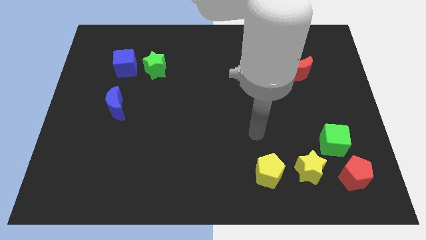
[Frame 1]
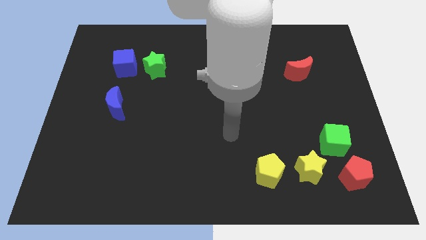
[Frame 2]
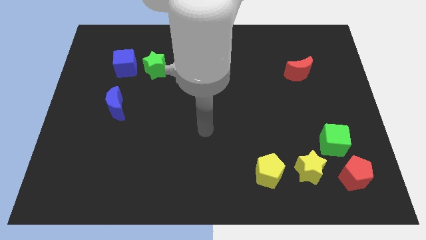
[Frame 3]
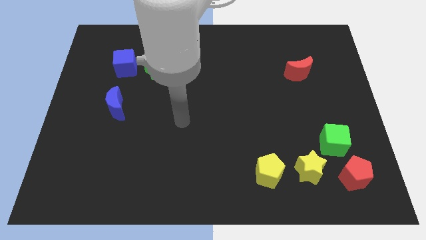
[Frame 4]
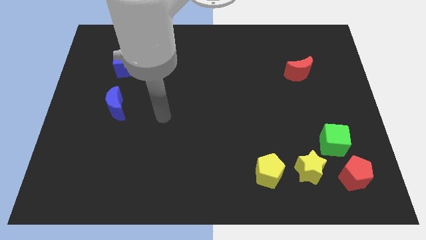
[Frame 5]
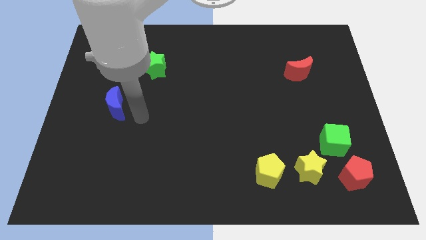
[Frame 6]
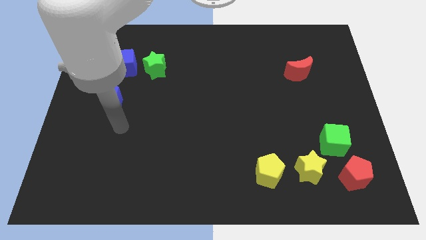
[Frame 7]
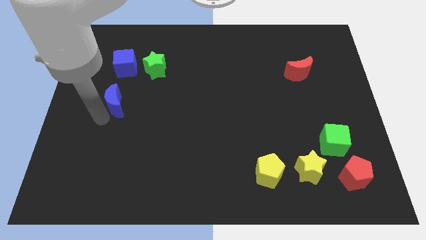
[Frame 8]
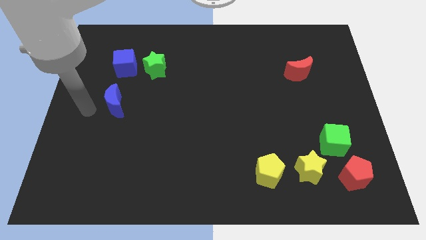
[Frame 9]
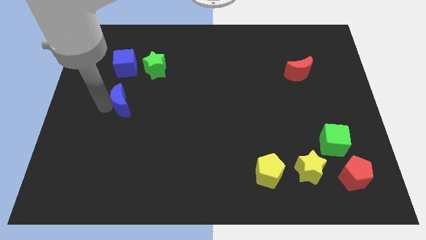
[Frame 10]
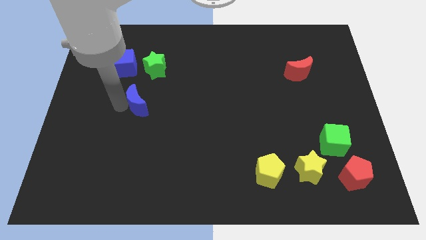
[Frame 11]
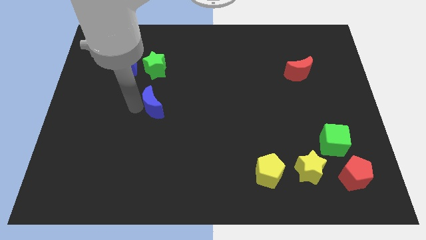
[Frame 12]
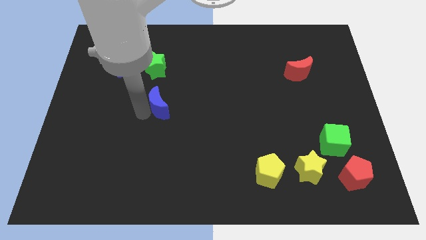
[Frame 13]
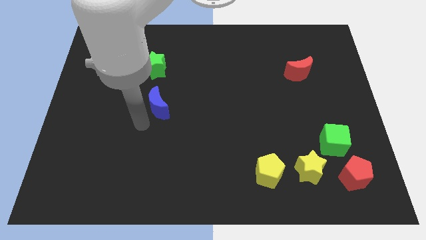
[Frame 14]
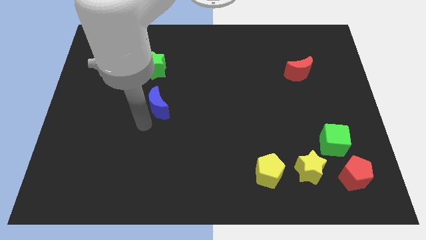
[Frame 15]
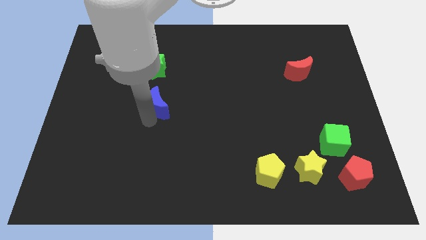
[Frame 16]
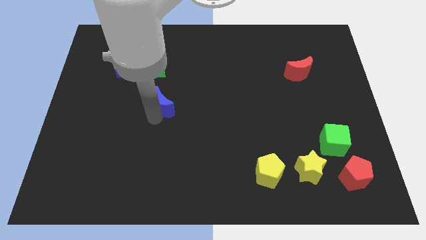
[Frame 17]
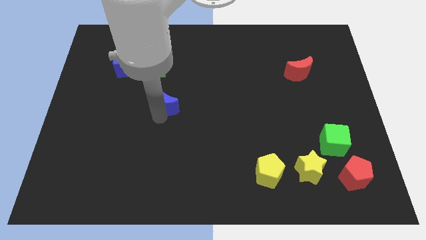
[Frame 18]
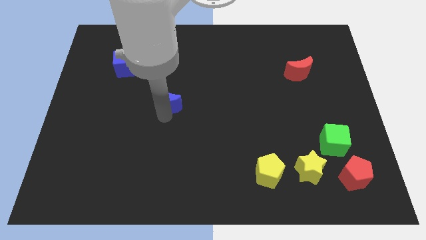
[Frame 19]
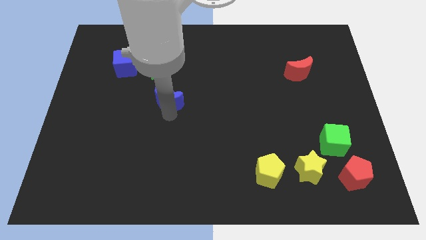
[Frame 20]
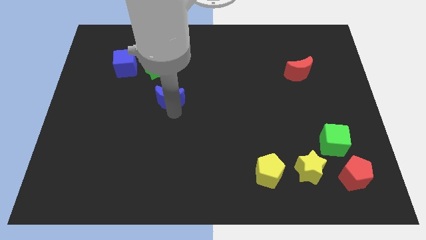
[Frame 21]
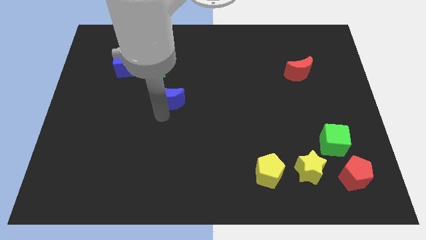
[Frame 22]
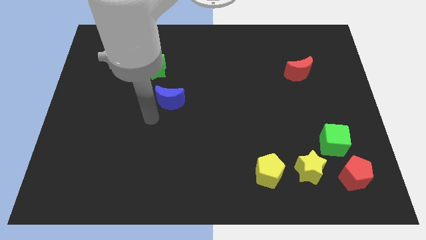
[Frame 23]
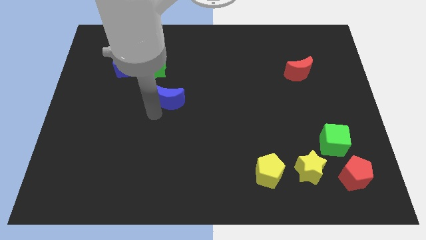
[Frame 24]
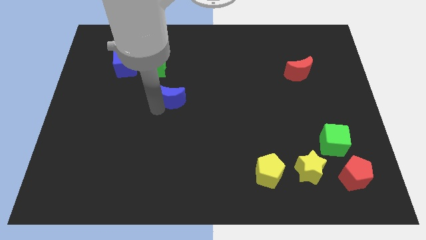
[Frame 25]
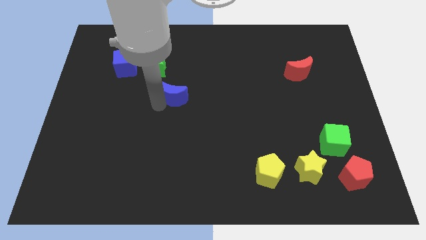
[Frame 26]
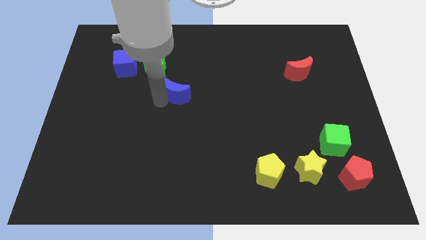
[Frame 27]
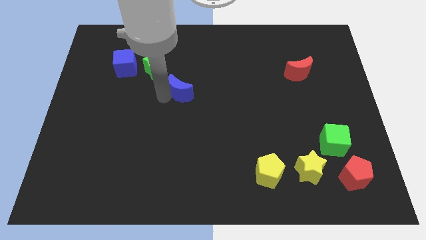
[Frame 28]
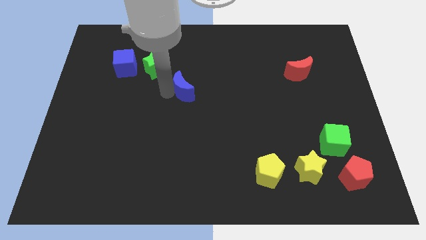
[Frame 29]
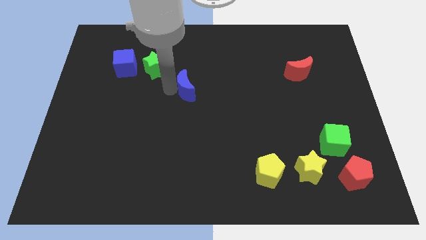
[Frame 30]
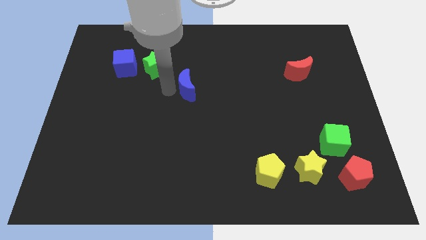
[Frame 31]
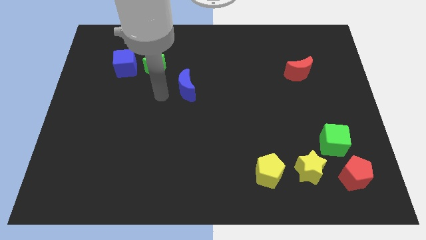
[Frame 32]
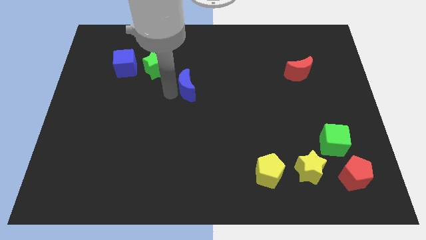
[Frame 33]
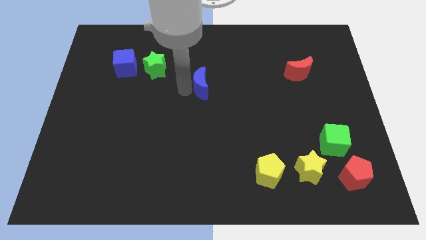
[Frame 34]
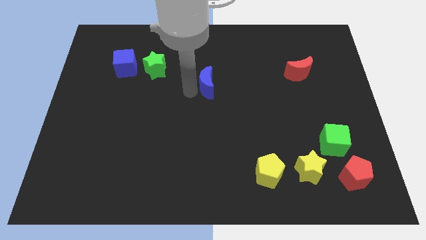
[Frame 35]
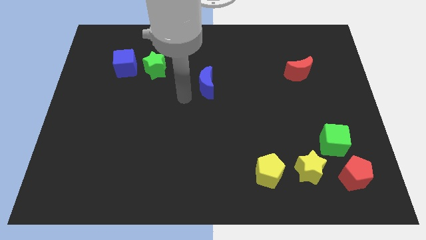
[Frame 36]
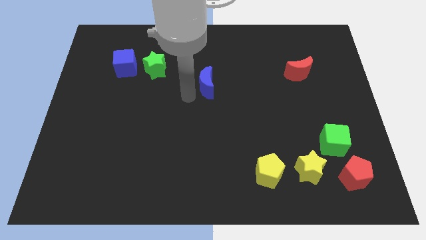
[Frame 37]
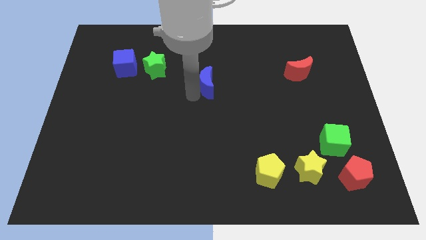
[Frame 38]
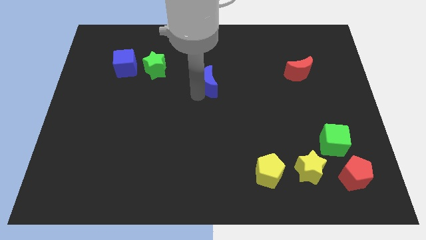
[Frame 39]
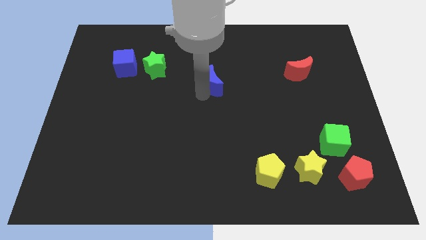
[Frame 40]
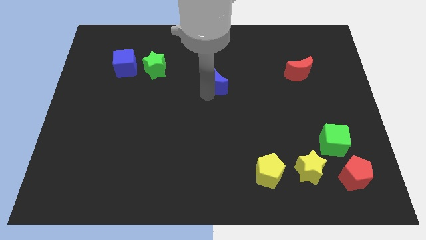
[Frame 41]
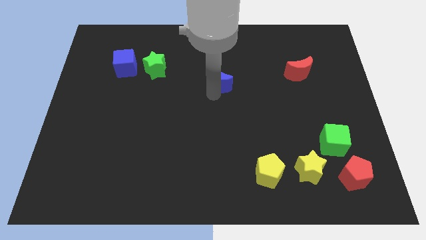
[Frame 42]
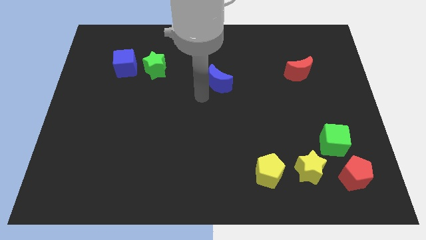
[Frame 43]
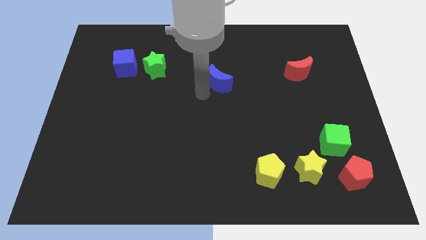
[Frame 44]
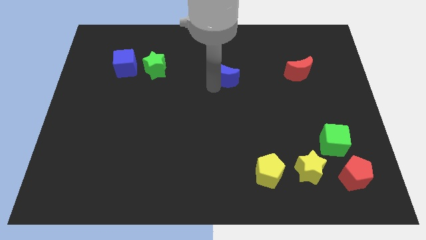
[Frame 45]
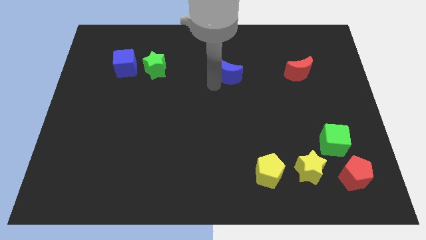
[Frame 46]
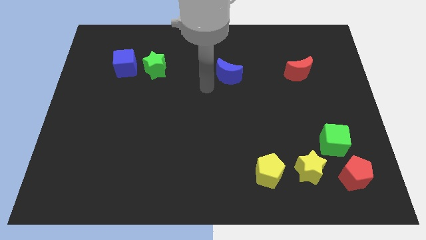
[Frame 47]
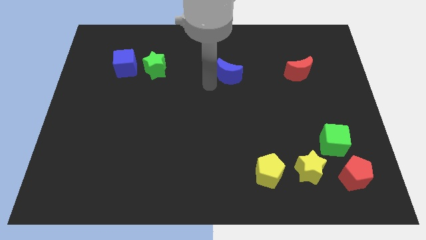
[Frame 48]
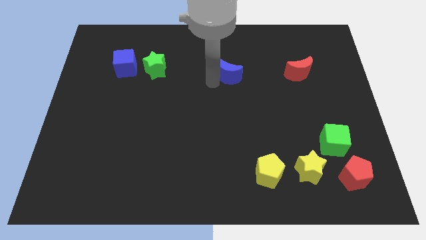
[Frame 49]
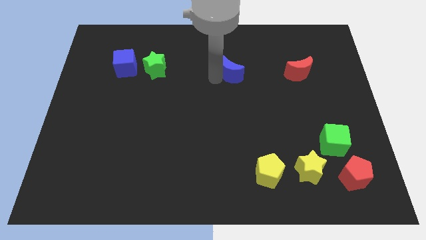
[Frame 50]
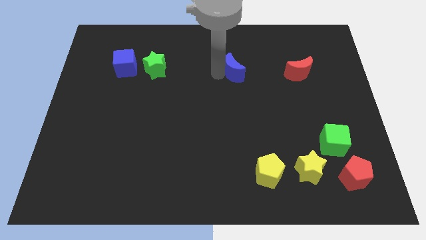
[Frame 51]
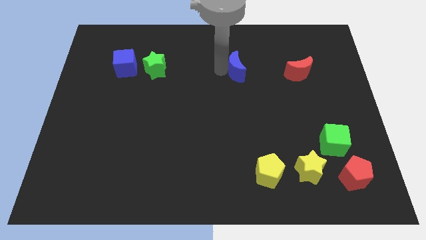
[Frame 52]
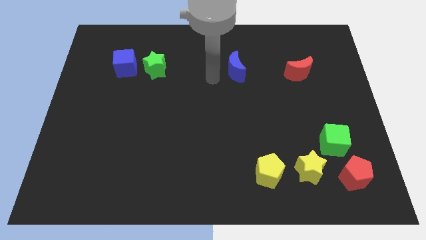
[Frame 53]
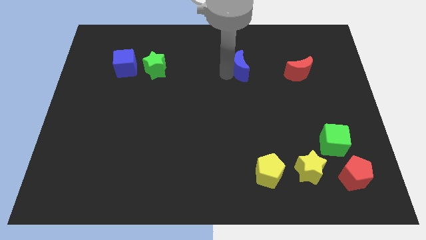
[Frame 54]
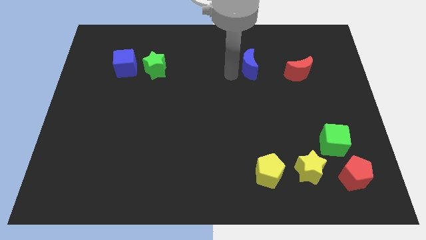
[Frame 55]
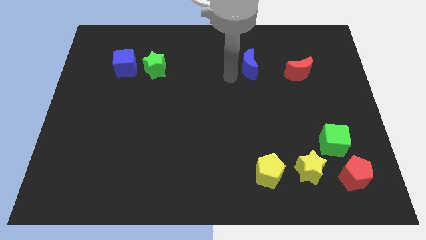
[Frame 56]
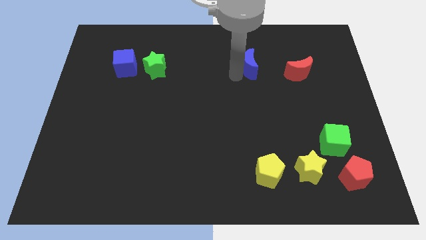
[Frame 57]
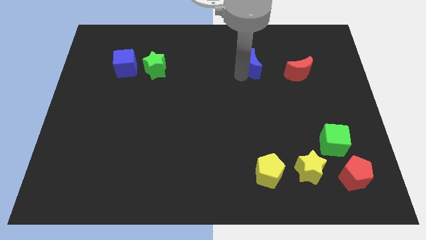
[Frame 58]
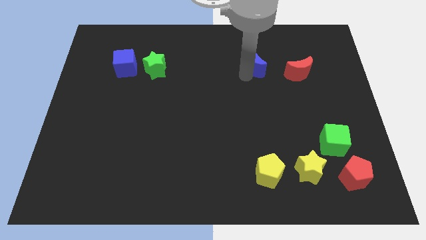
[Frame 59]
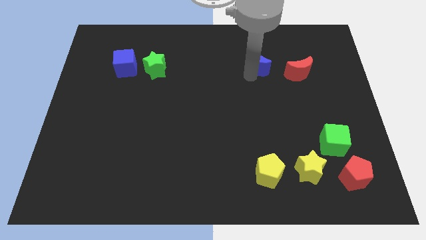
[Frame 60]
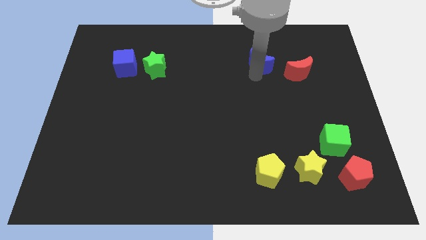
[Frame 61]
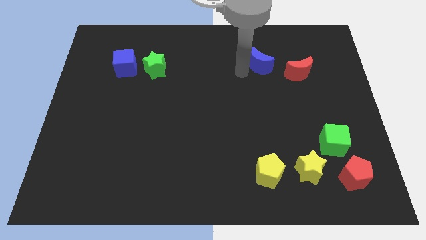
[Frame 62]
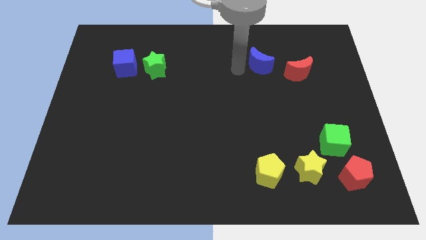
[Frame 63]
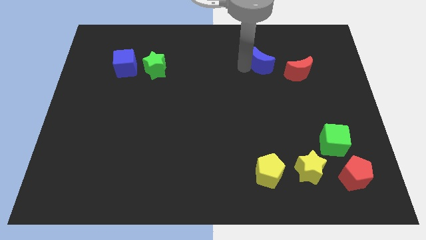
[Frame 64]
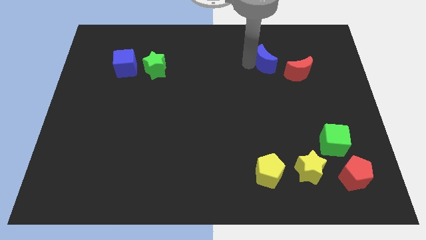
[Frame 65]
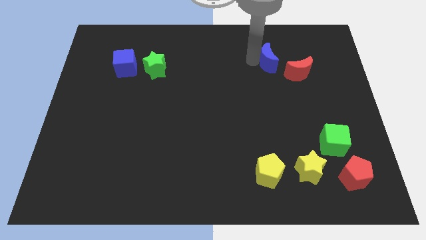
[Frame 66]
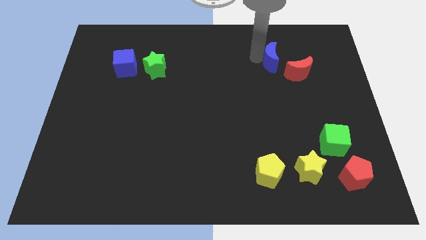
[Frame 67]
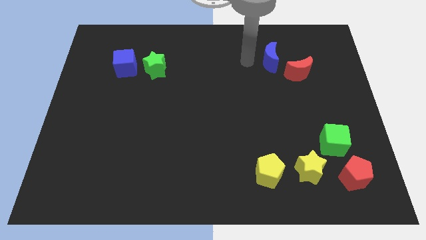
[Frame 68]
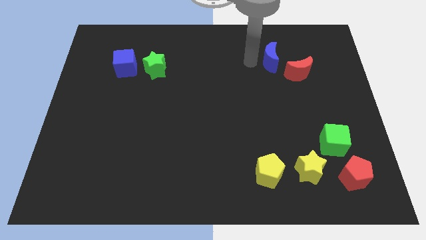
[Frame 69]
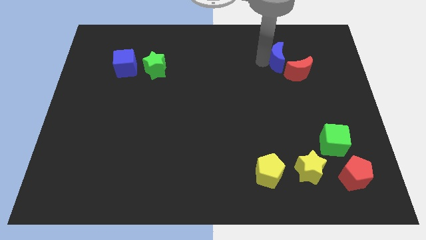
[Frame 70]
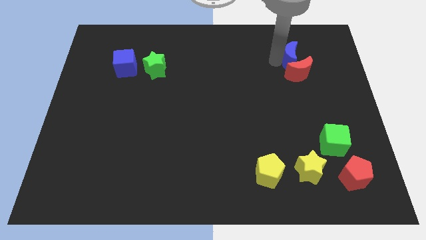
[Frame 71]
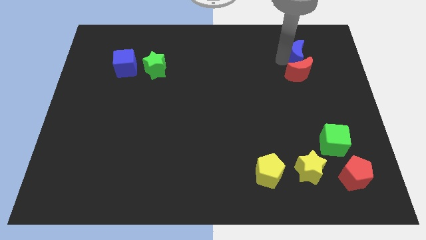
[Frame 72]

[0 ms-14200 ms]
push the blue moon to the top right side of the red moon
